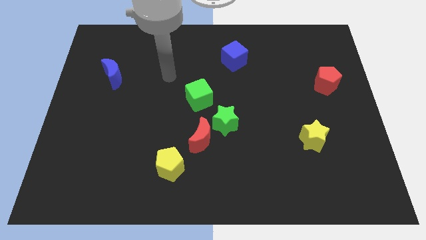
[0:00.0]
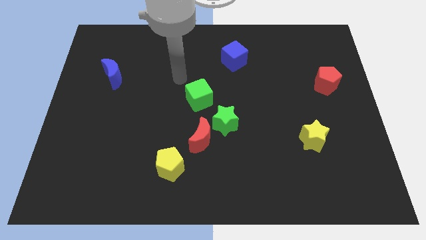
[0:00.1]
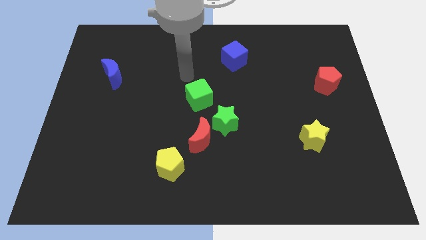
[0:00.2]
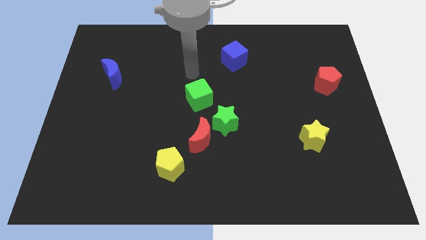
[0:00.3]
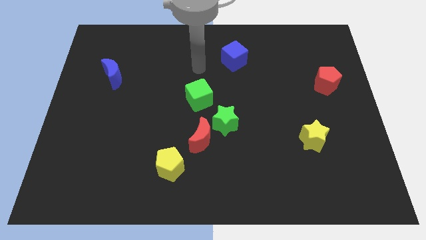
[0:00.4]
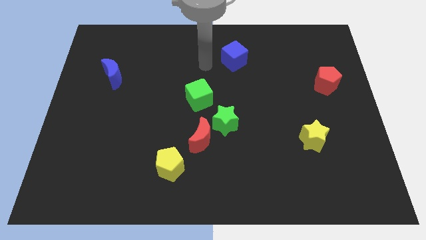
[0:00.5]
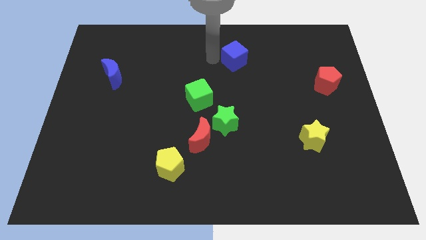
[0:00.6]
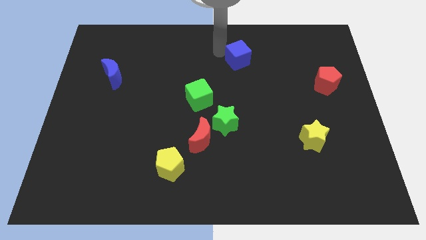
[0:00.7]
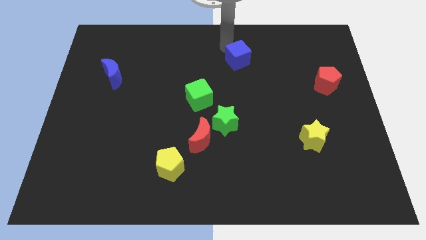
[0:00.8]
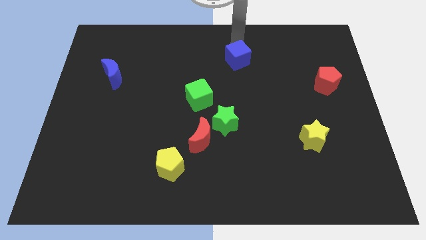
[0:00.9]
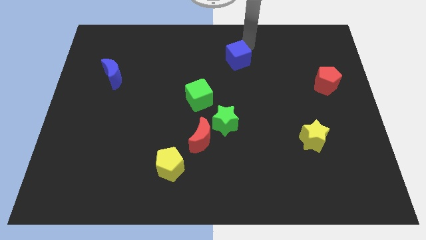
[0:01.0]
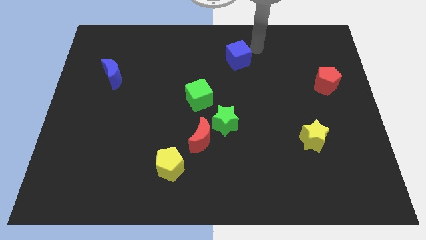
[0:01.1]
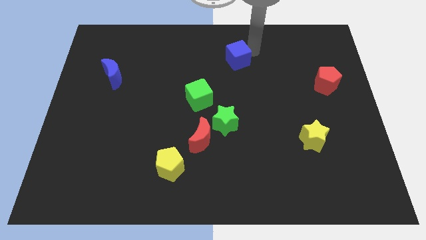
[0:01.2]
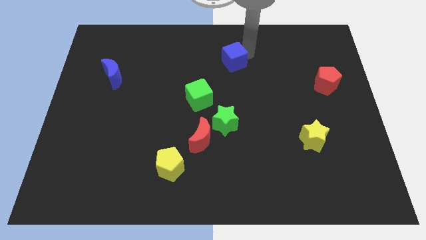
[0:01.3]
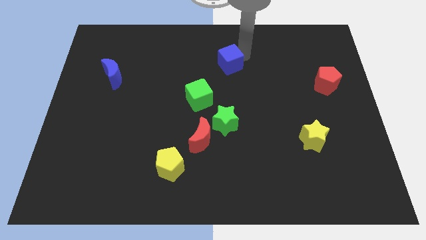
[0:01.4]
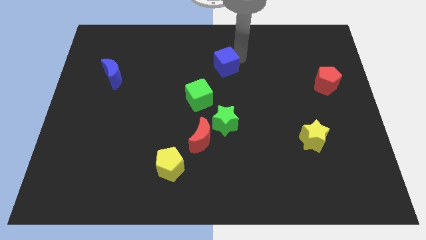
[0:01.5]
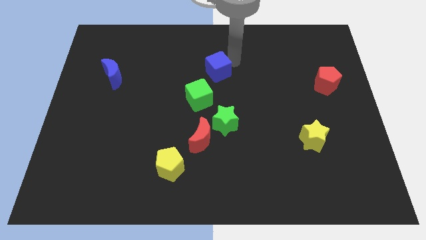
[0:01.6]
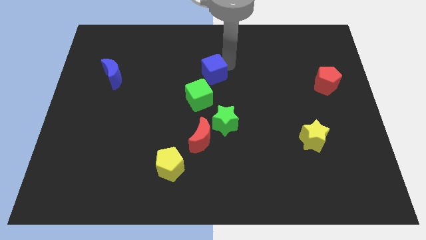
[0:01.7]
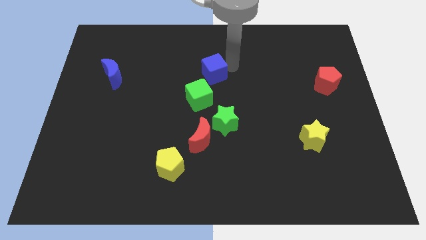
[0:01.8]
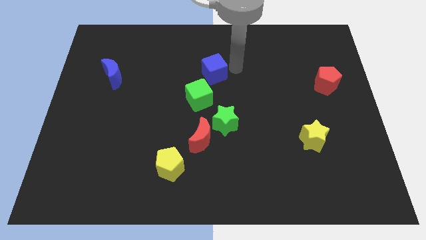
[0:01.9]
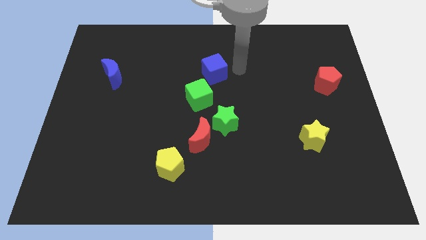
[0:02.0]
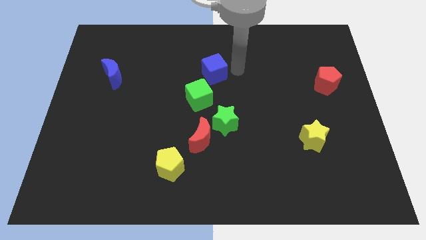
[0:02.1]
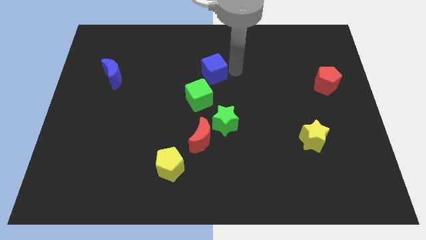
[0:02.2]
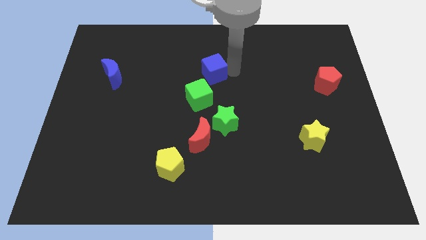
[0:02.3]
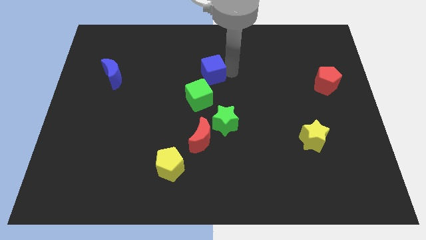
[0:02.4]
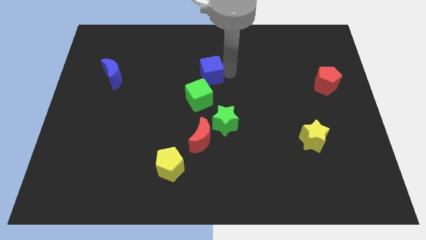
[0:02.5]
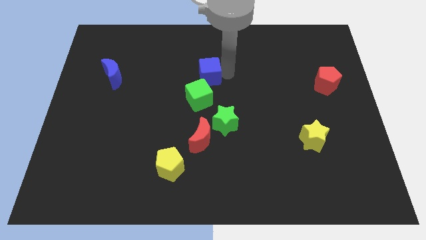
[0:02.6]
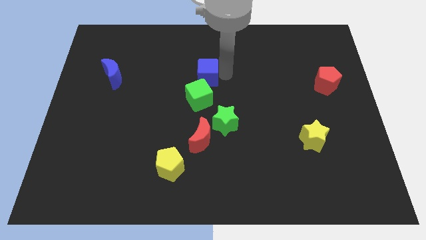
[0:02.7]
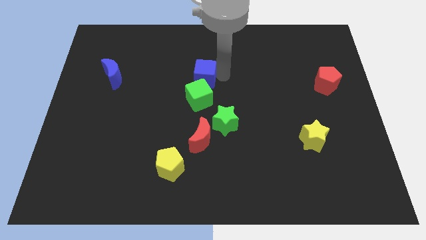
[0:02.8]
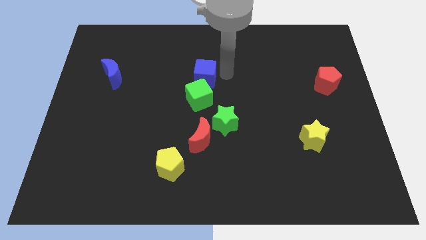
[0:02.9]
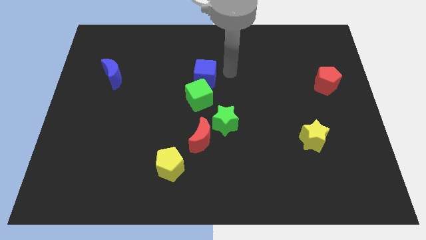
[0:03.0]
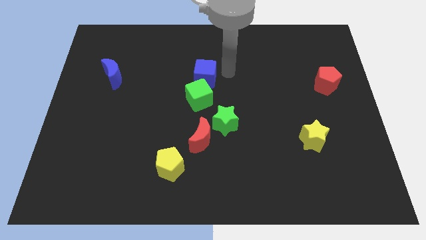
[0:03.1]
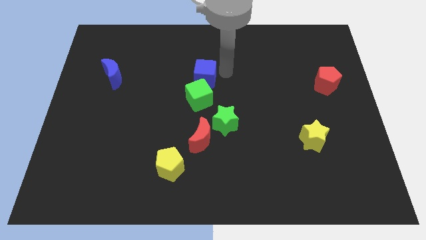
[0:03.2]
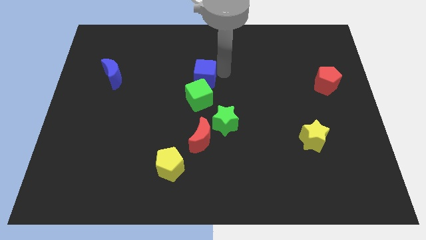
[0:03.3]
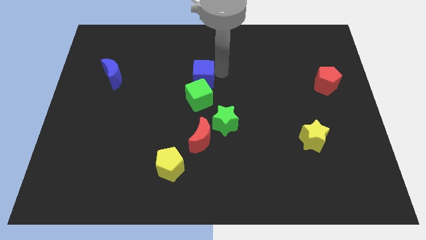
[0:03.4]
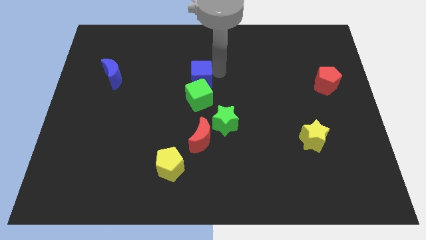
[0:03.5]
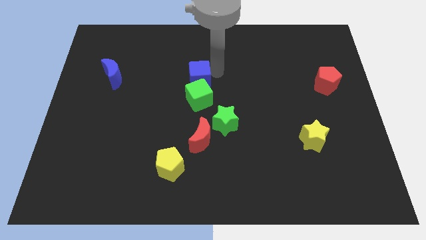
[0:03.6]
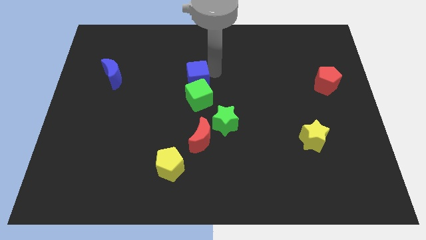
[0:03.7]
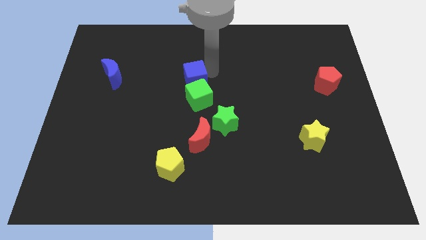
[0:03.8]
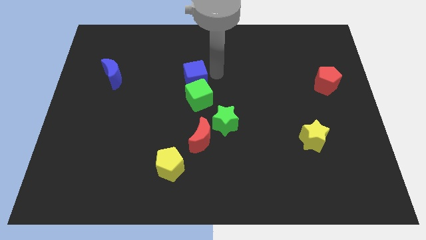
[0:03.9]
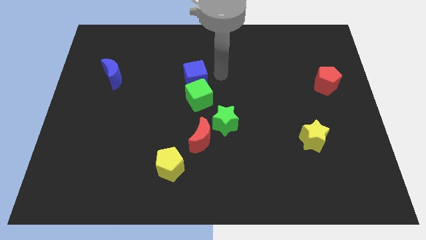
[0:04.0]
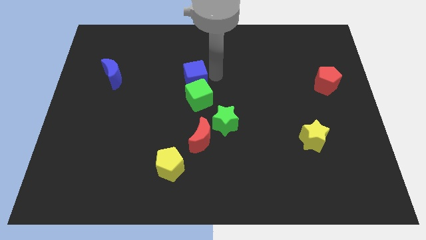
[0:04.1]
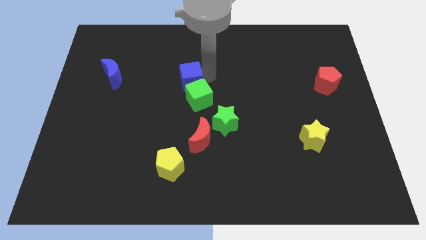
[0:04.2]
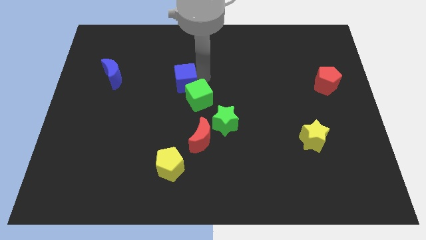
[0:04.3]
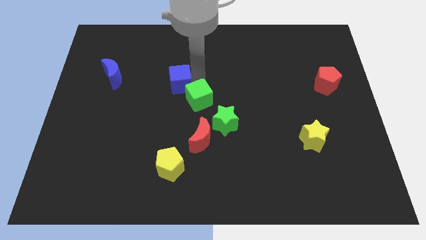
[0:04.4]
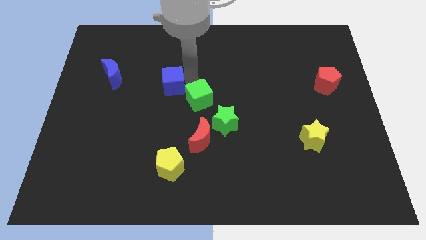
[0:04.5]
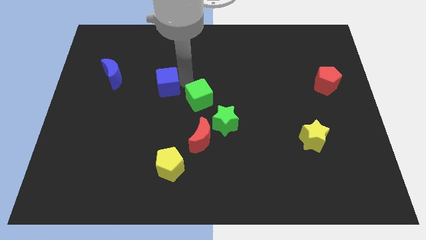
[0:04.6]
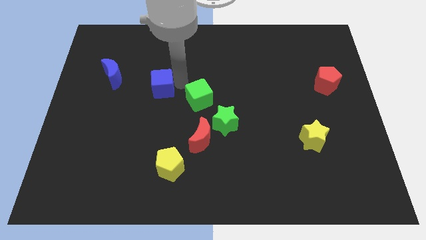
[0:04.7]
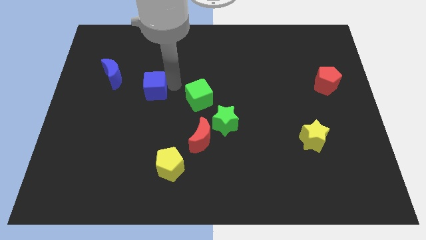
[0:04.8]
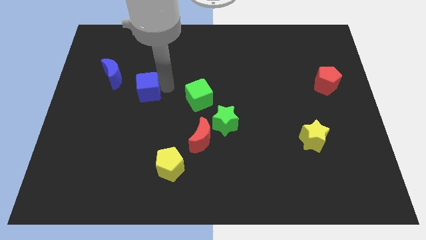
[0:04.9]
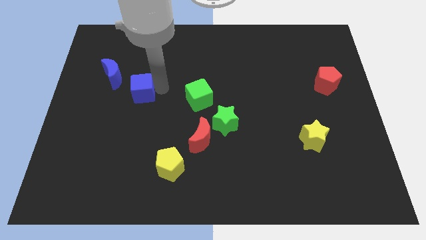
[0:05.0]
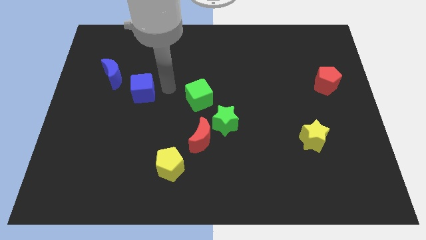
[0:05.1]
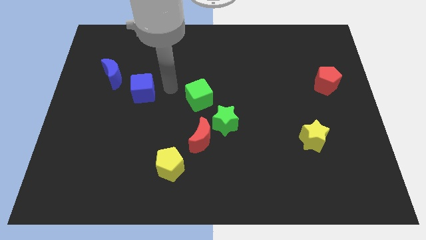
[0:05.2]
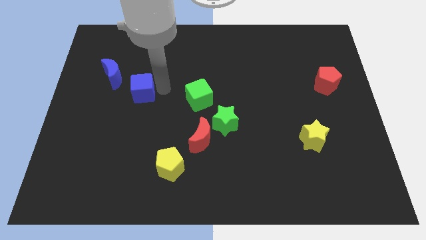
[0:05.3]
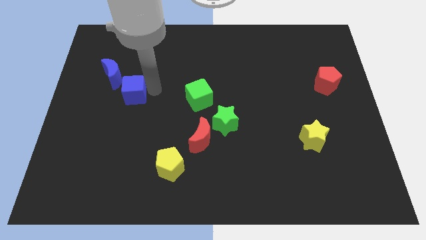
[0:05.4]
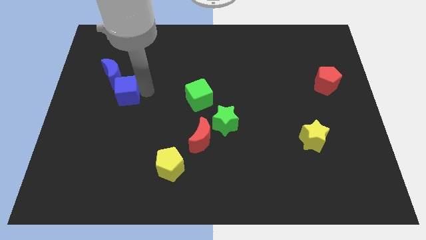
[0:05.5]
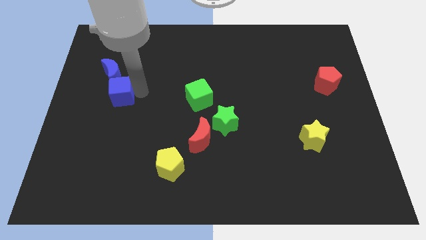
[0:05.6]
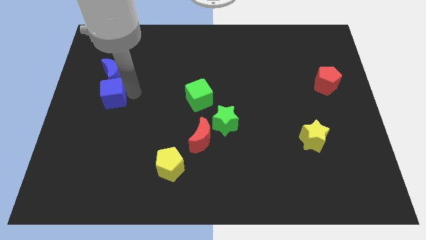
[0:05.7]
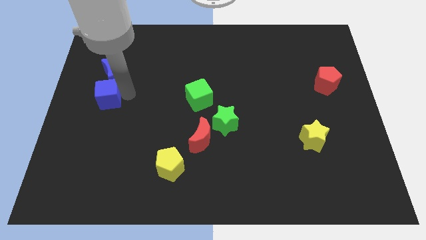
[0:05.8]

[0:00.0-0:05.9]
push the blue cube to the center left
